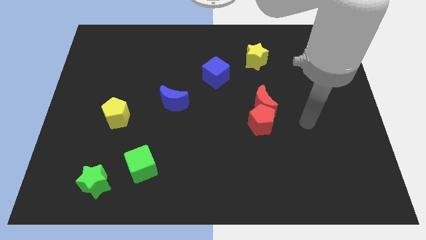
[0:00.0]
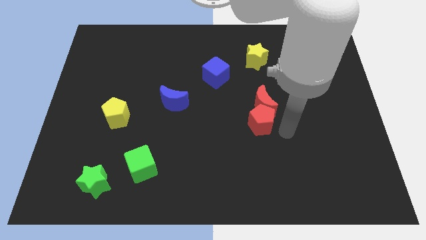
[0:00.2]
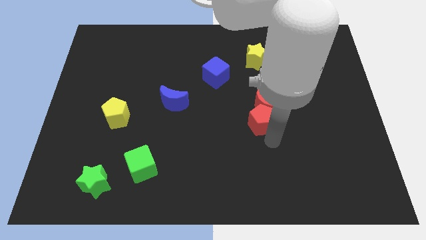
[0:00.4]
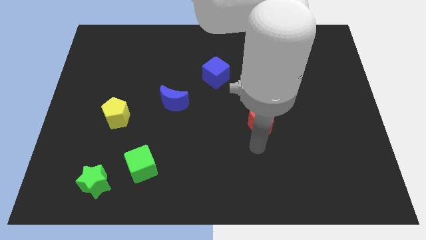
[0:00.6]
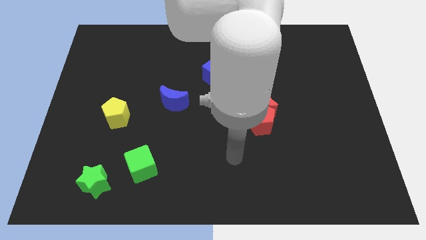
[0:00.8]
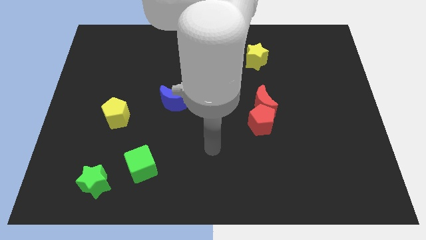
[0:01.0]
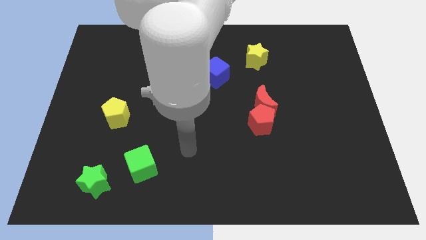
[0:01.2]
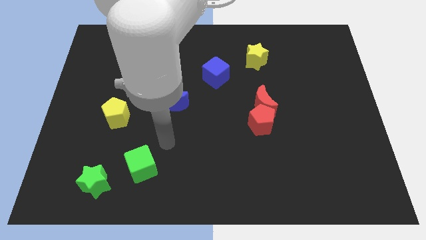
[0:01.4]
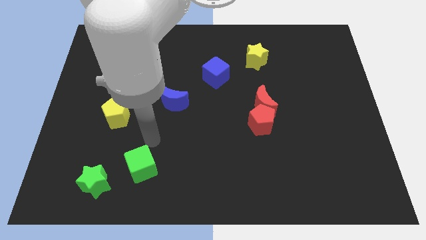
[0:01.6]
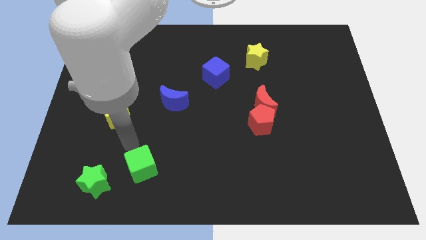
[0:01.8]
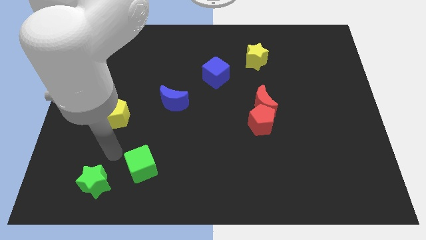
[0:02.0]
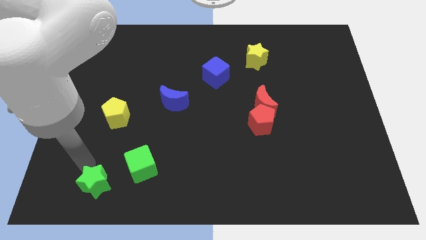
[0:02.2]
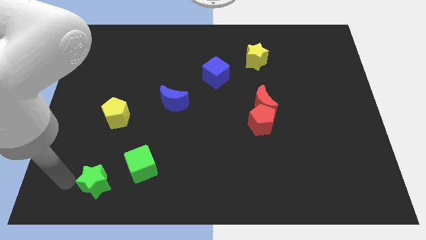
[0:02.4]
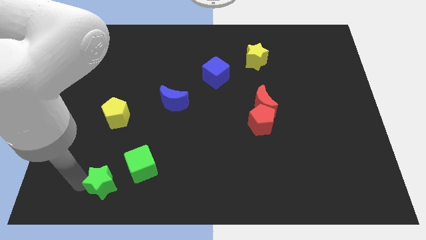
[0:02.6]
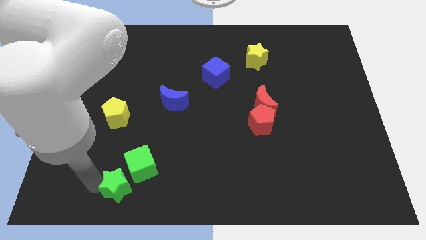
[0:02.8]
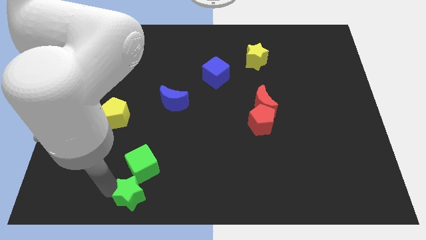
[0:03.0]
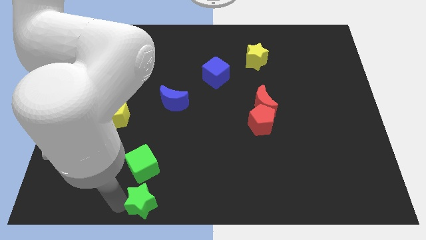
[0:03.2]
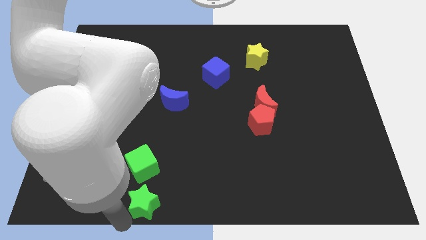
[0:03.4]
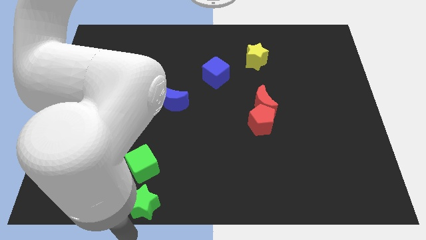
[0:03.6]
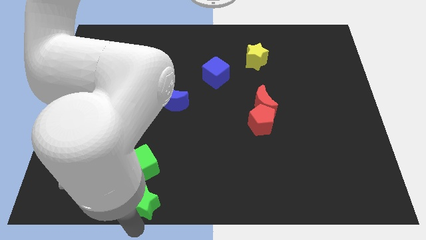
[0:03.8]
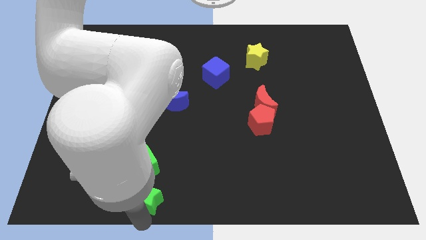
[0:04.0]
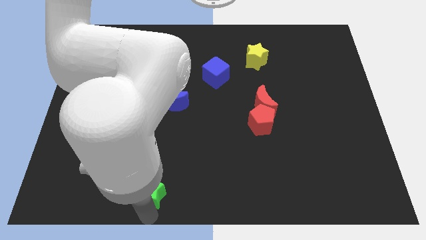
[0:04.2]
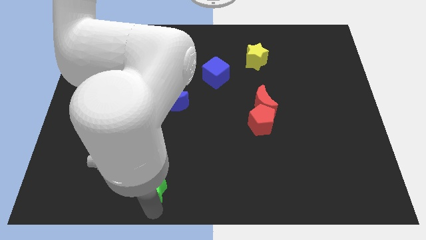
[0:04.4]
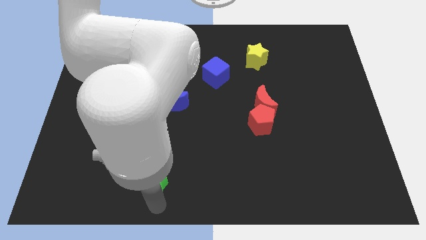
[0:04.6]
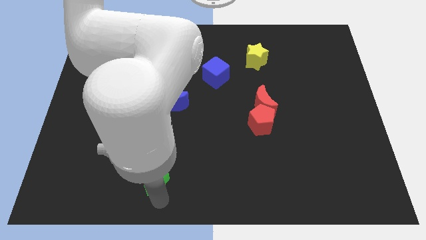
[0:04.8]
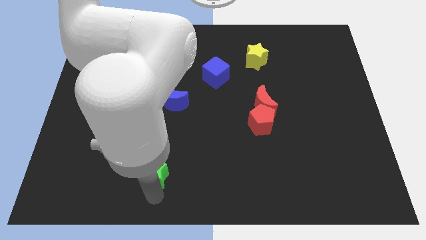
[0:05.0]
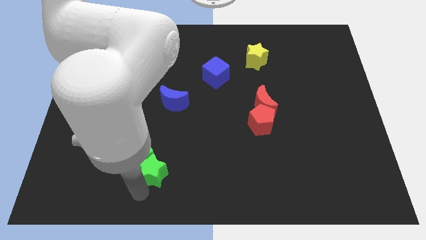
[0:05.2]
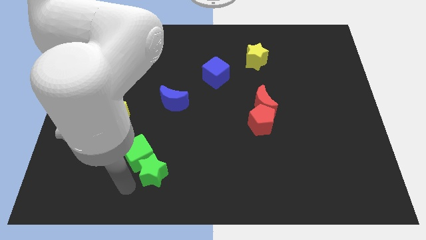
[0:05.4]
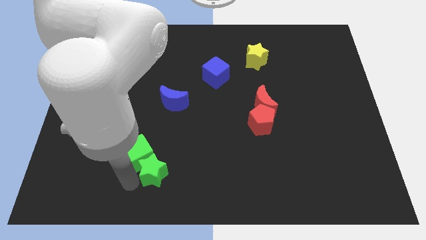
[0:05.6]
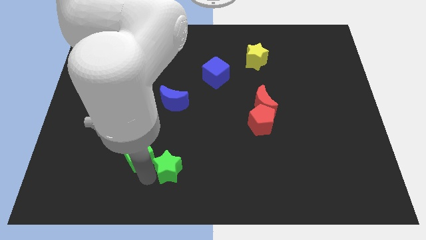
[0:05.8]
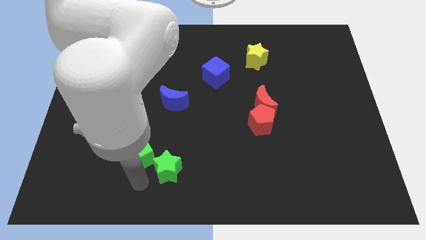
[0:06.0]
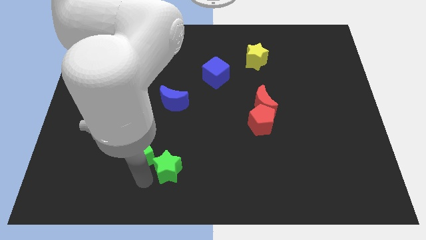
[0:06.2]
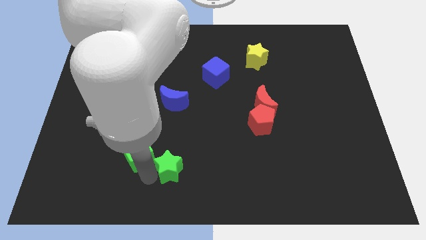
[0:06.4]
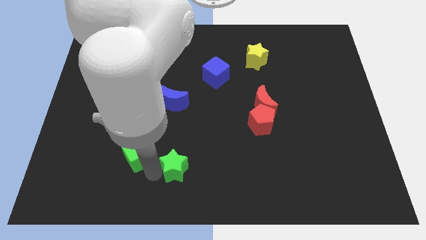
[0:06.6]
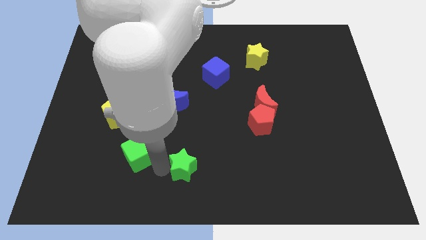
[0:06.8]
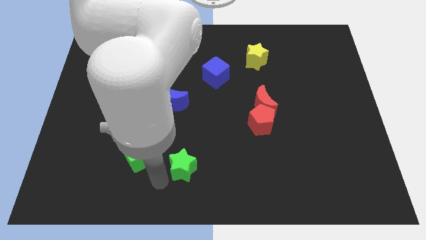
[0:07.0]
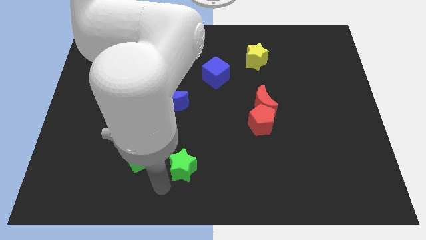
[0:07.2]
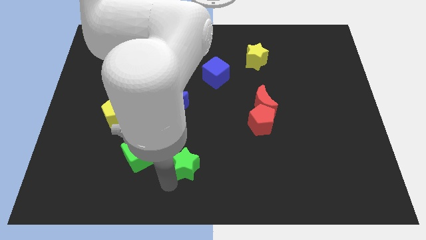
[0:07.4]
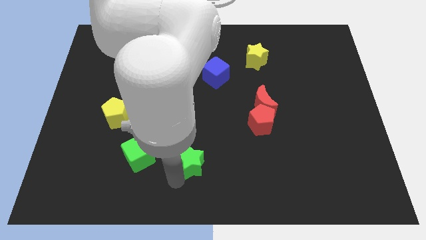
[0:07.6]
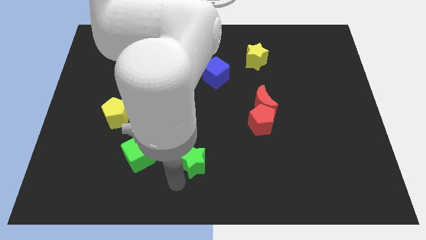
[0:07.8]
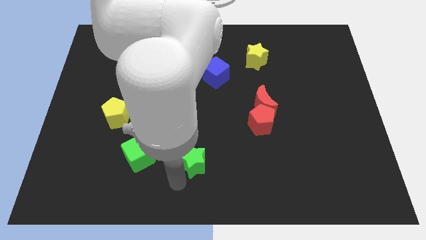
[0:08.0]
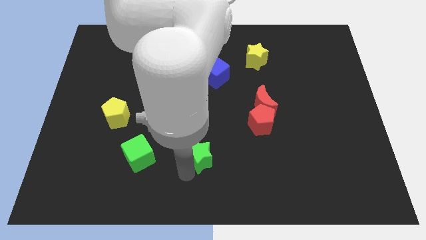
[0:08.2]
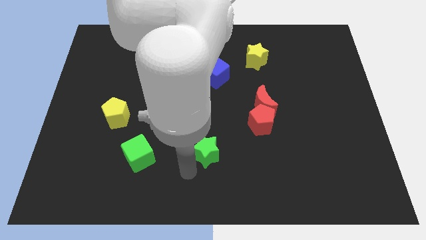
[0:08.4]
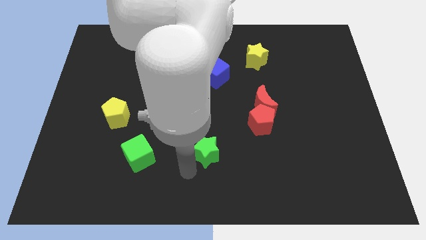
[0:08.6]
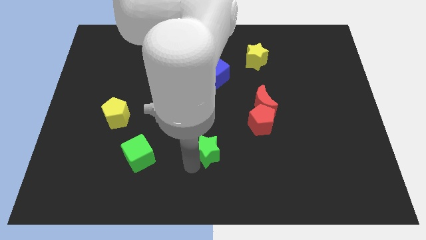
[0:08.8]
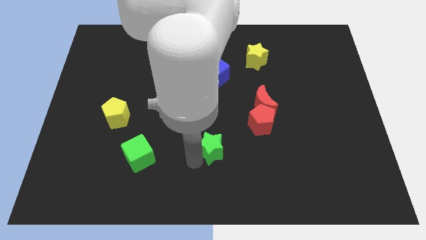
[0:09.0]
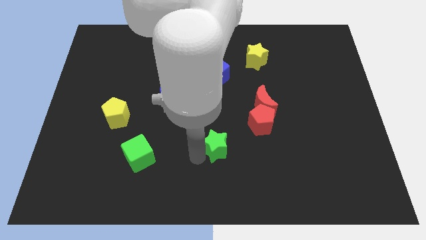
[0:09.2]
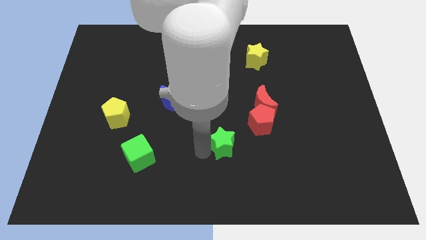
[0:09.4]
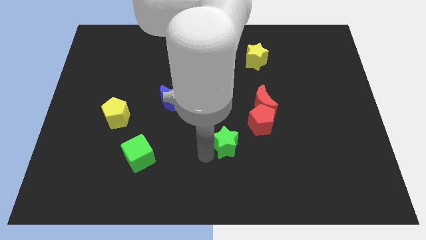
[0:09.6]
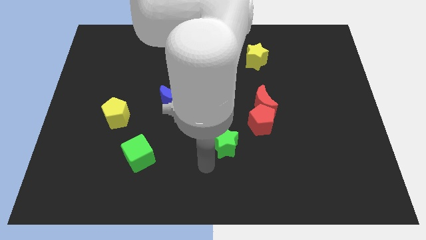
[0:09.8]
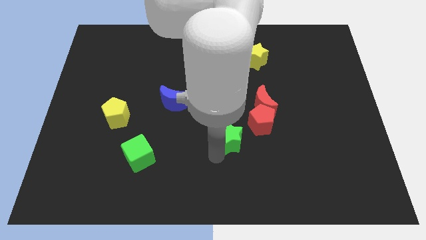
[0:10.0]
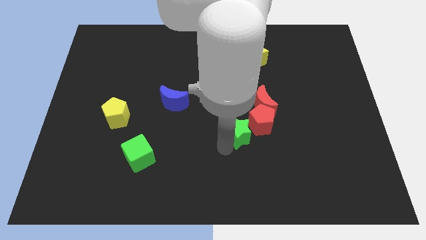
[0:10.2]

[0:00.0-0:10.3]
push the green star towards the red pentagon

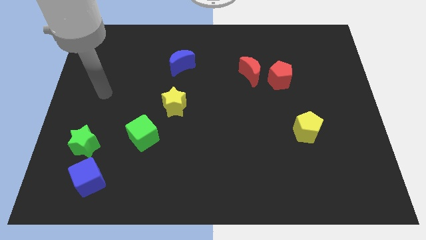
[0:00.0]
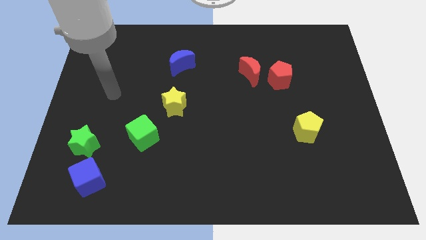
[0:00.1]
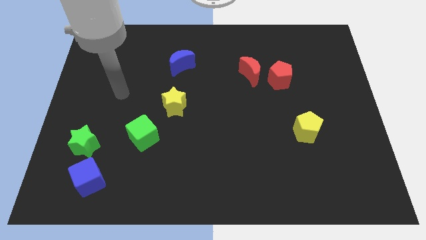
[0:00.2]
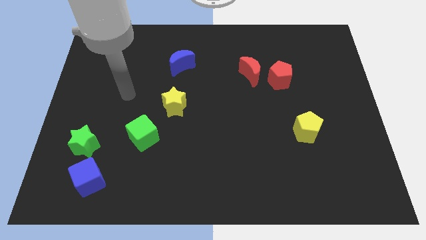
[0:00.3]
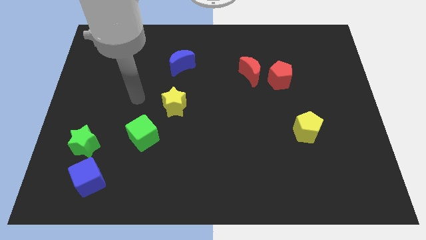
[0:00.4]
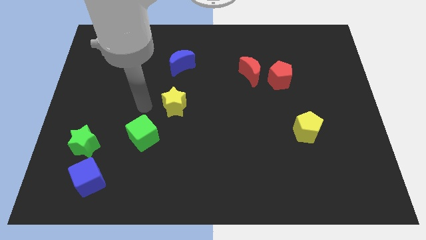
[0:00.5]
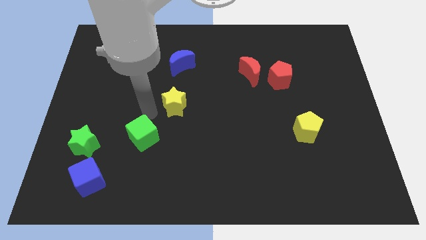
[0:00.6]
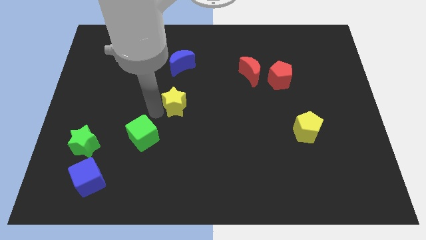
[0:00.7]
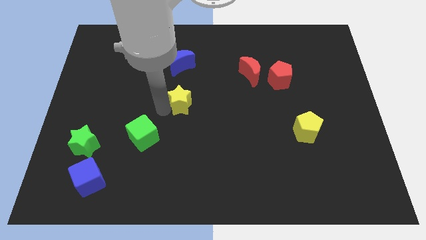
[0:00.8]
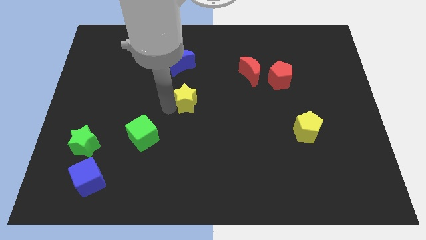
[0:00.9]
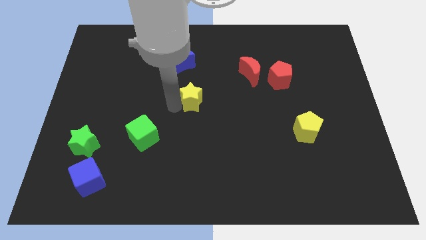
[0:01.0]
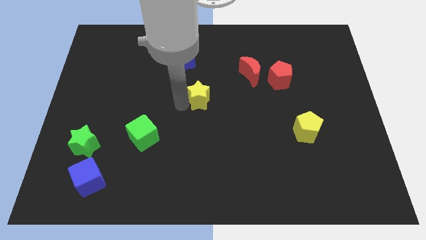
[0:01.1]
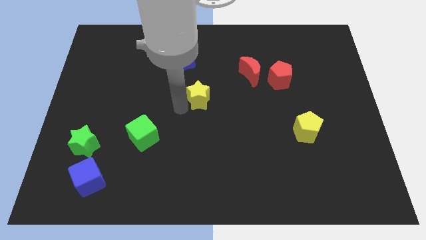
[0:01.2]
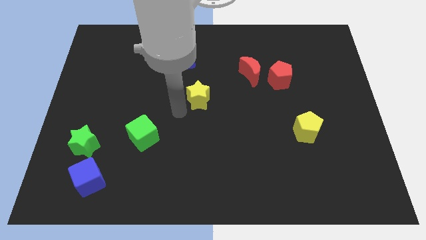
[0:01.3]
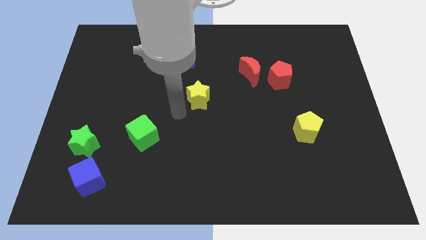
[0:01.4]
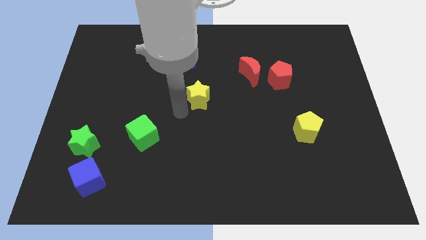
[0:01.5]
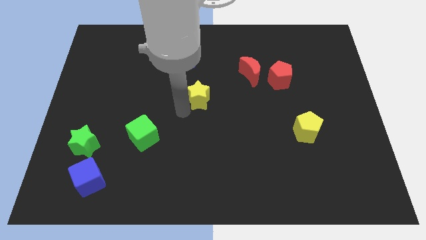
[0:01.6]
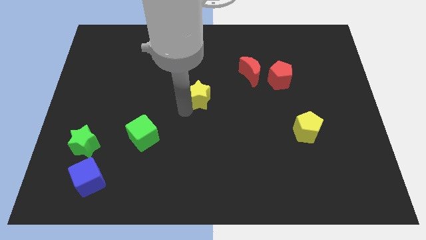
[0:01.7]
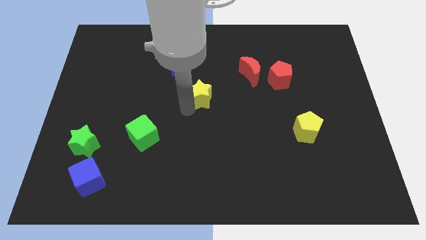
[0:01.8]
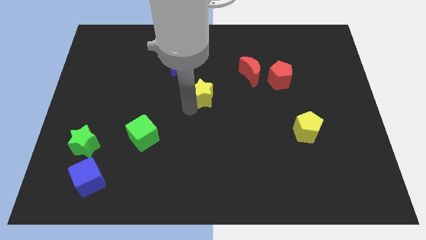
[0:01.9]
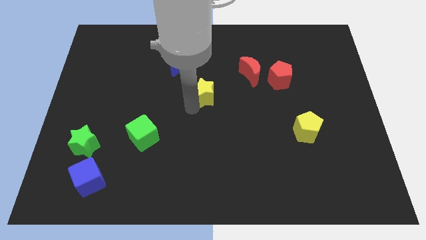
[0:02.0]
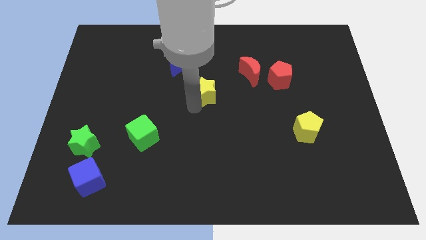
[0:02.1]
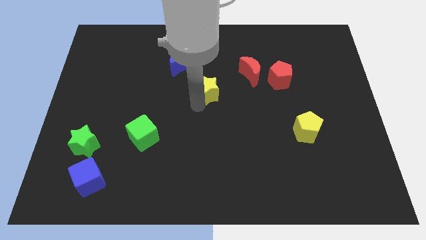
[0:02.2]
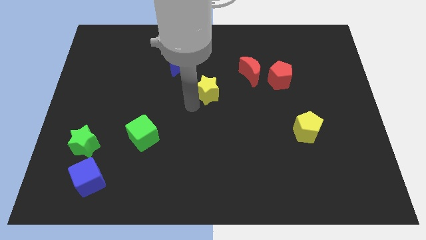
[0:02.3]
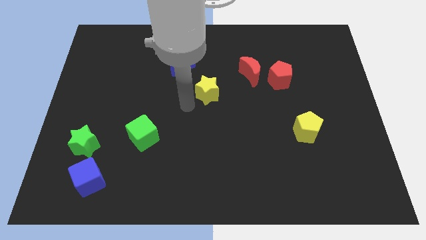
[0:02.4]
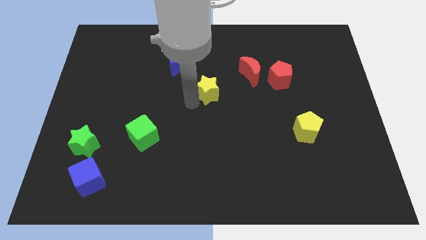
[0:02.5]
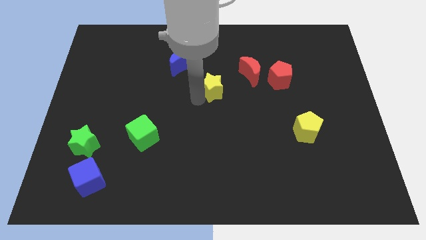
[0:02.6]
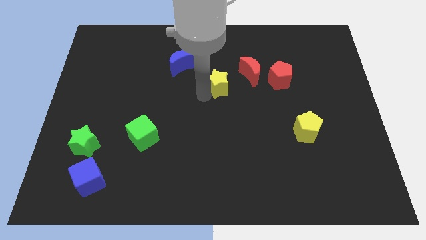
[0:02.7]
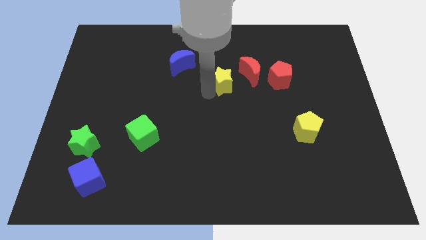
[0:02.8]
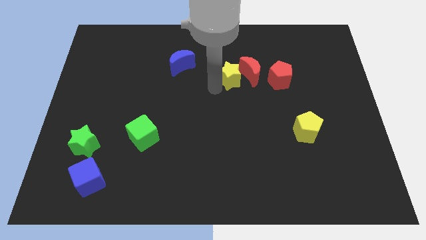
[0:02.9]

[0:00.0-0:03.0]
push the yellow star to the red moon

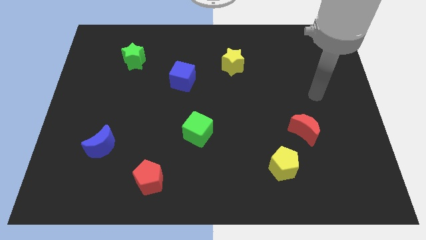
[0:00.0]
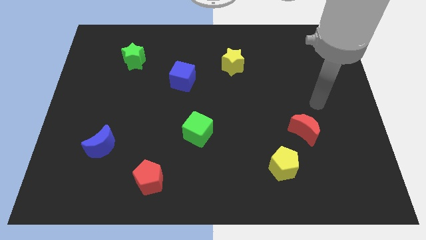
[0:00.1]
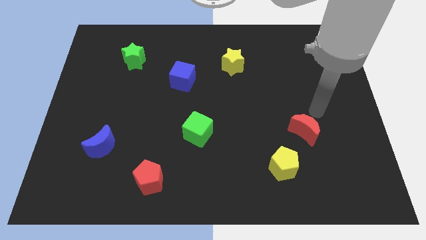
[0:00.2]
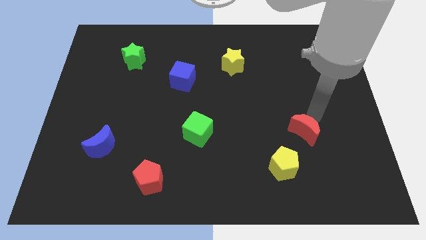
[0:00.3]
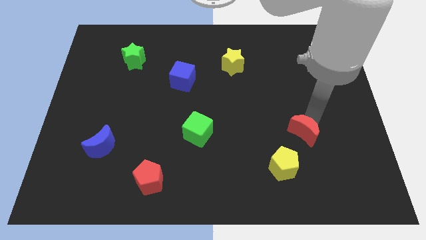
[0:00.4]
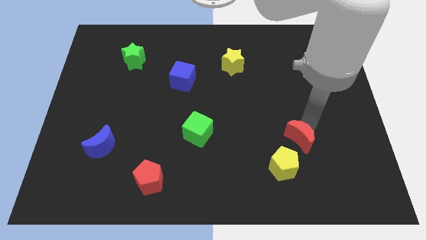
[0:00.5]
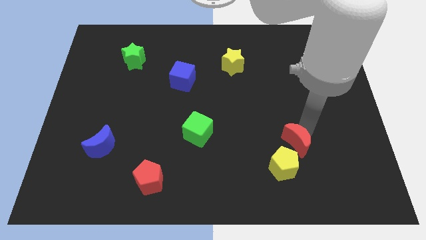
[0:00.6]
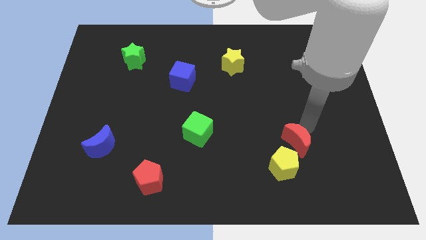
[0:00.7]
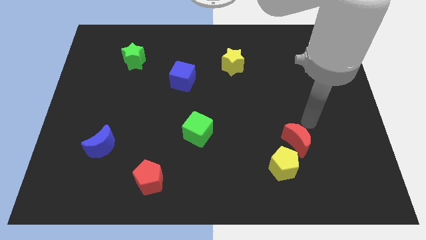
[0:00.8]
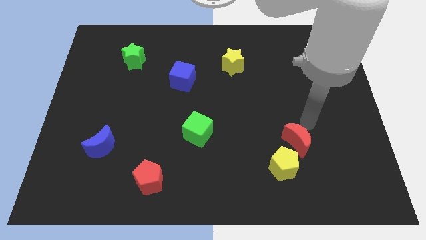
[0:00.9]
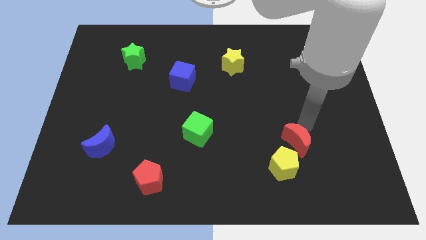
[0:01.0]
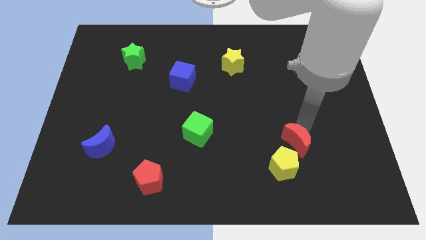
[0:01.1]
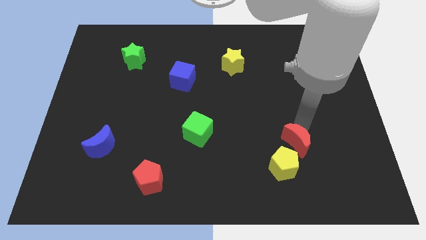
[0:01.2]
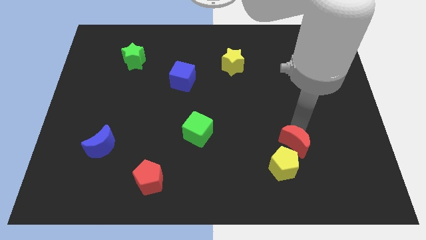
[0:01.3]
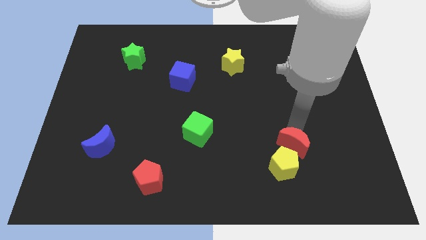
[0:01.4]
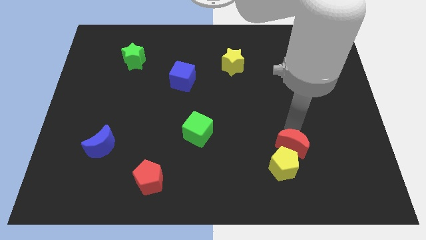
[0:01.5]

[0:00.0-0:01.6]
slide the red moon towards the yellow pentagon
